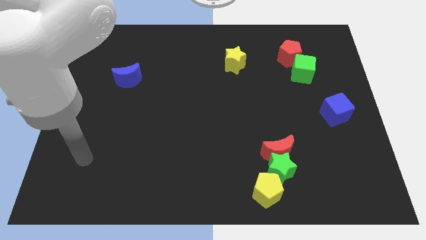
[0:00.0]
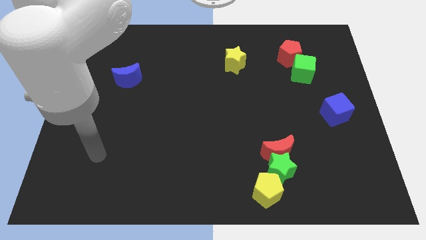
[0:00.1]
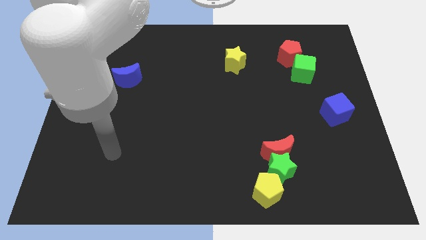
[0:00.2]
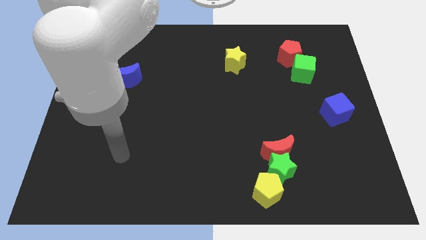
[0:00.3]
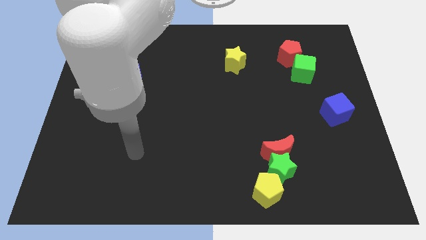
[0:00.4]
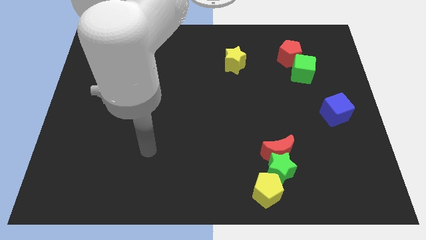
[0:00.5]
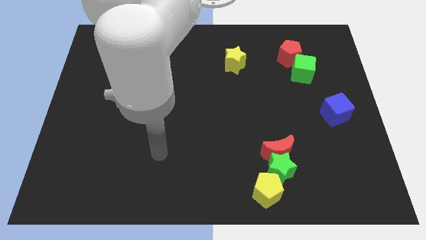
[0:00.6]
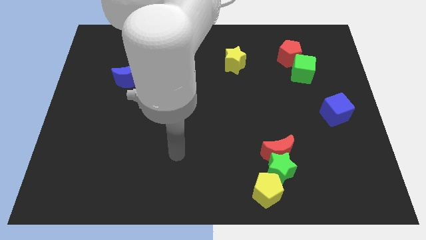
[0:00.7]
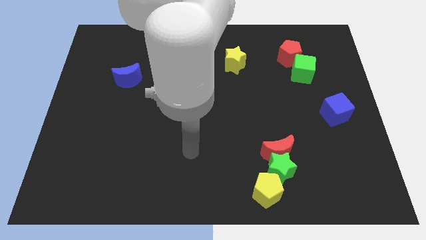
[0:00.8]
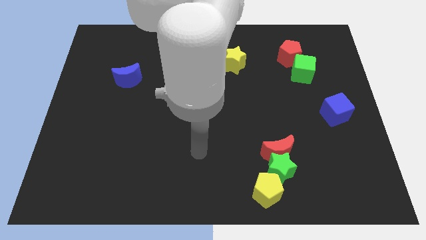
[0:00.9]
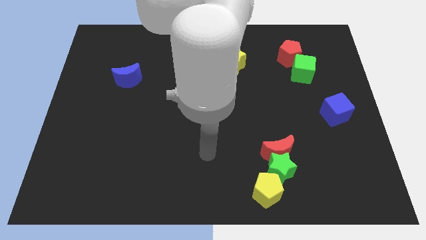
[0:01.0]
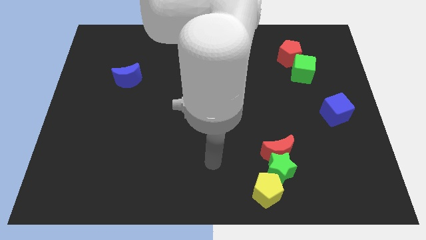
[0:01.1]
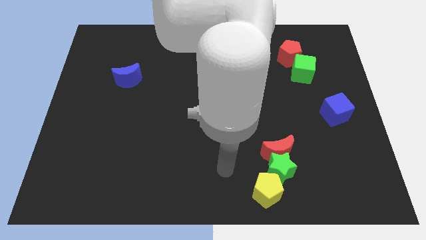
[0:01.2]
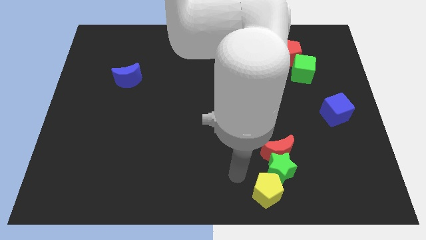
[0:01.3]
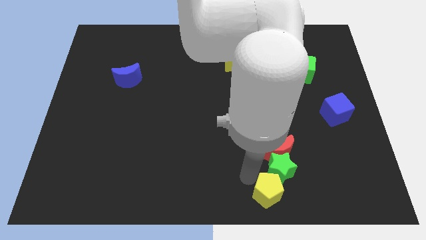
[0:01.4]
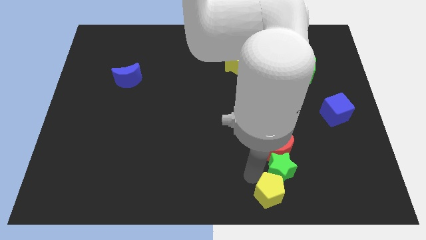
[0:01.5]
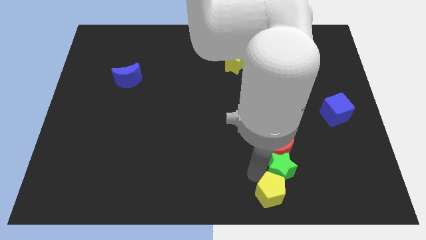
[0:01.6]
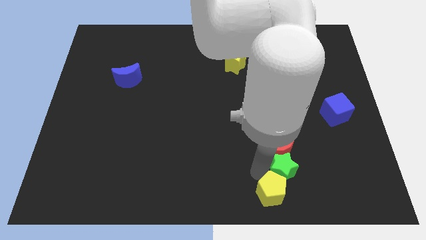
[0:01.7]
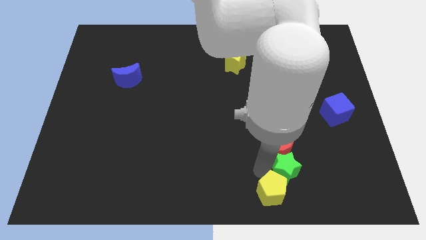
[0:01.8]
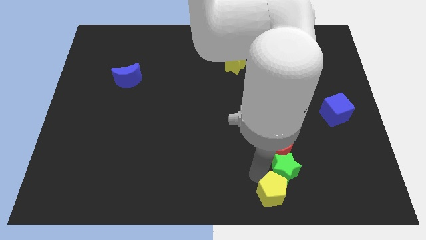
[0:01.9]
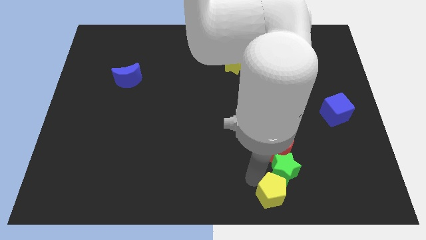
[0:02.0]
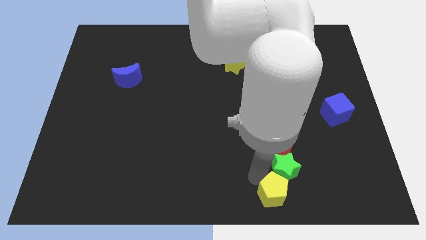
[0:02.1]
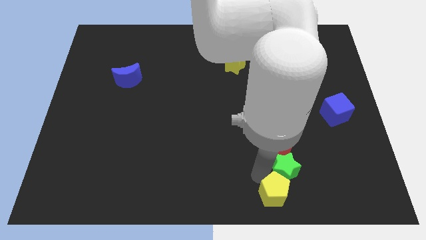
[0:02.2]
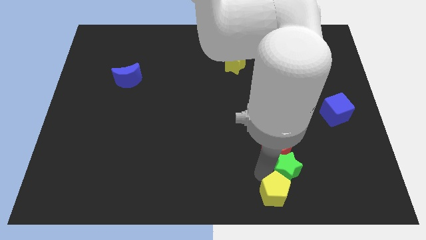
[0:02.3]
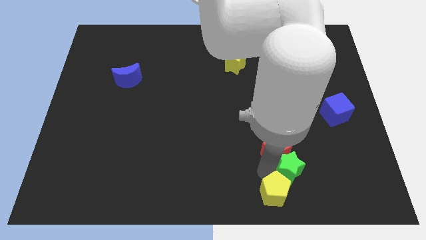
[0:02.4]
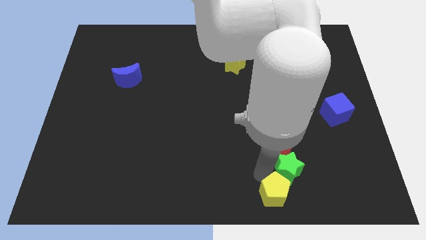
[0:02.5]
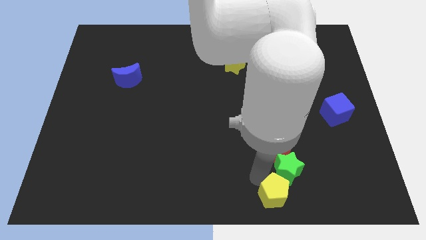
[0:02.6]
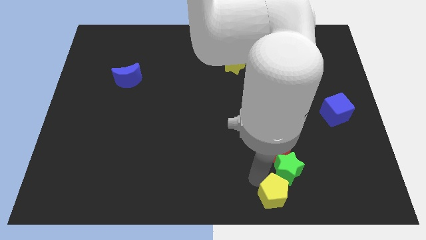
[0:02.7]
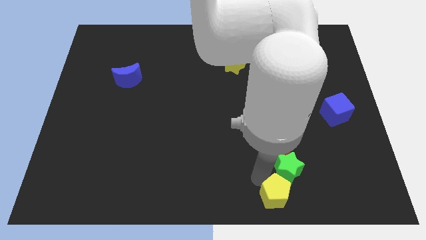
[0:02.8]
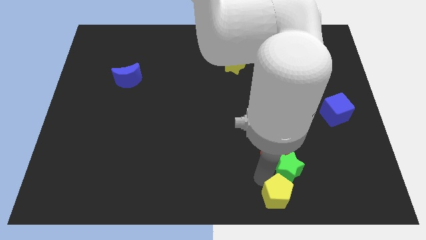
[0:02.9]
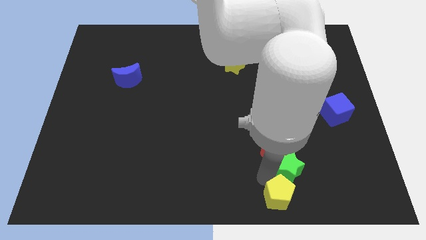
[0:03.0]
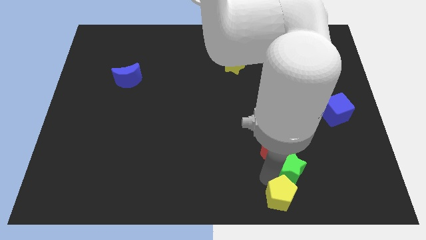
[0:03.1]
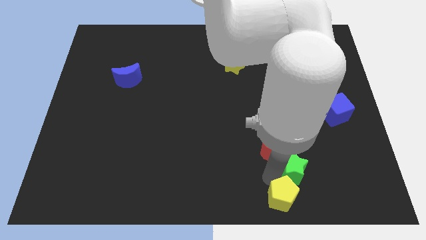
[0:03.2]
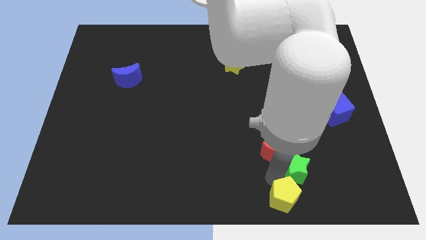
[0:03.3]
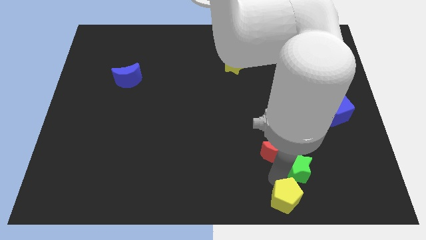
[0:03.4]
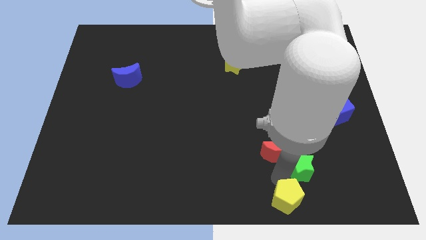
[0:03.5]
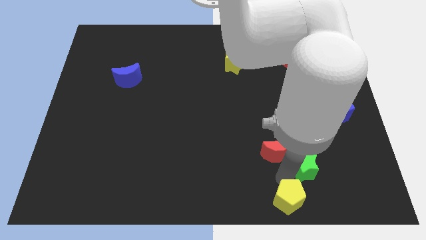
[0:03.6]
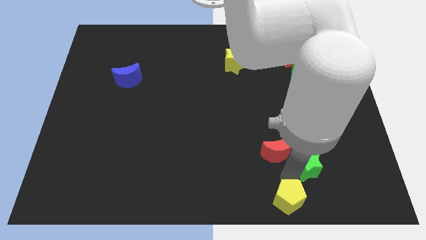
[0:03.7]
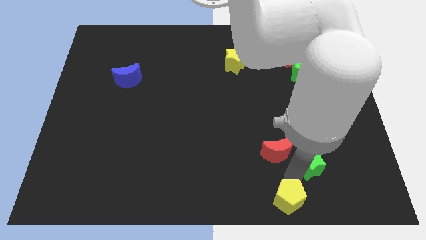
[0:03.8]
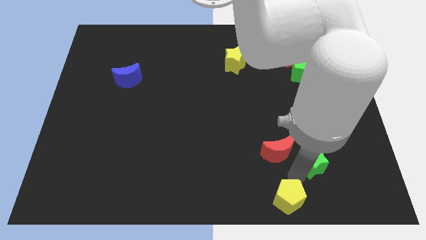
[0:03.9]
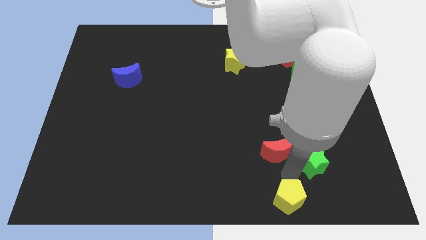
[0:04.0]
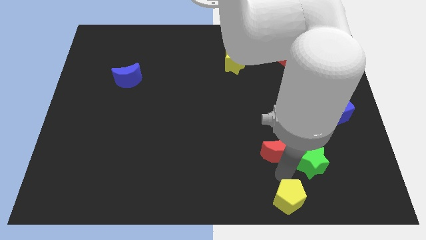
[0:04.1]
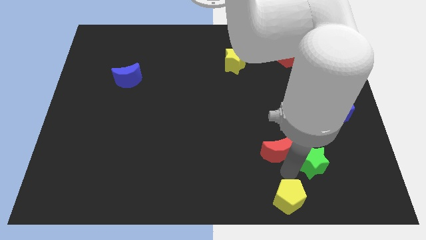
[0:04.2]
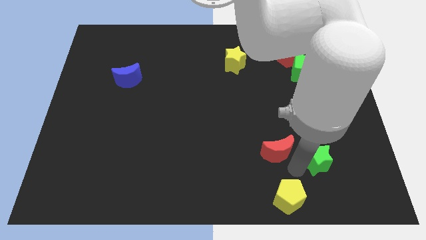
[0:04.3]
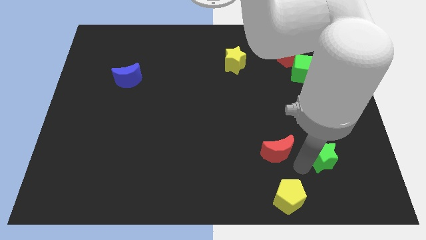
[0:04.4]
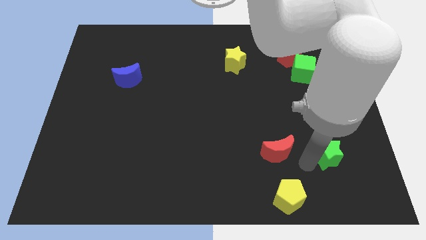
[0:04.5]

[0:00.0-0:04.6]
pull the green star apart from the red moon and yellow pentagon

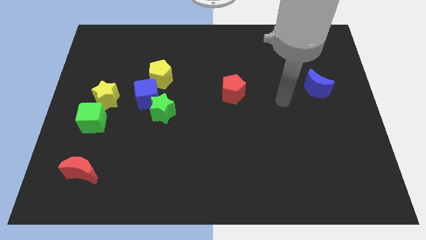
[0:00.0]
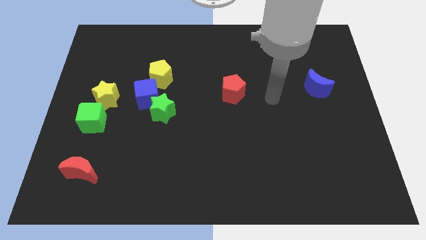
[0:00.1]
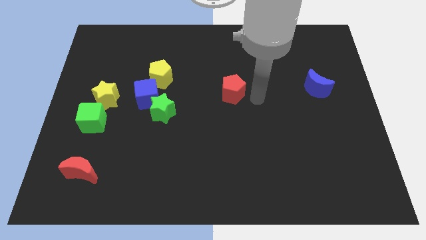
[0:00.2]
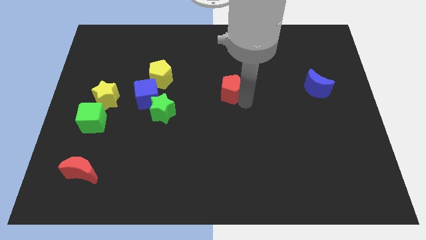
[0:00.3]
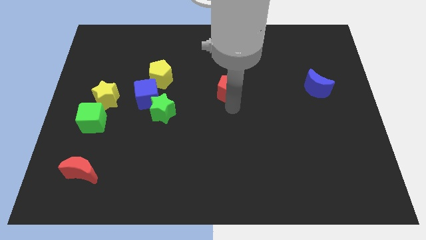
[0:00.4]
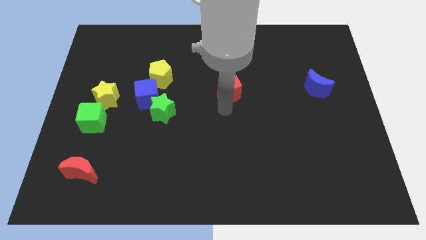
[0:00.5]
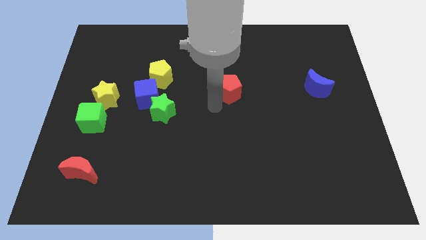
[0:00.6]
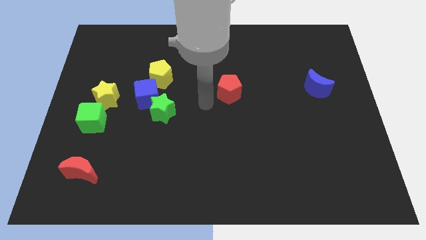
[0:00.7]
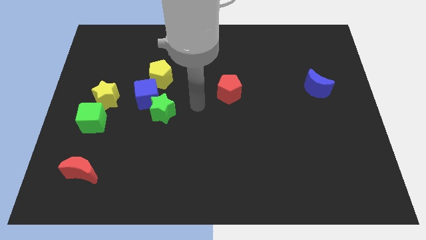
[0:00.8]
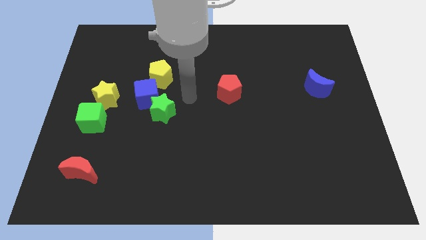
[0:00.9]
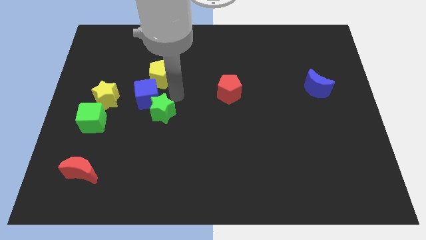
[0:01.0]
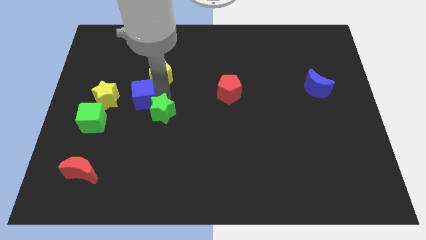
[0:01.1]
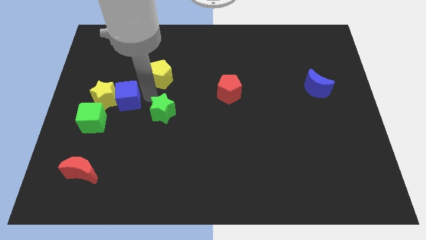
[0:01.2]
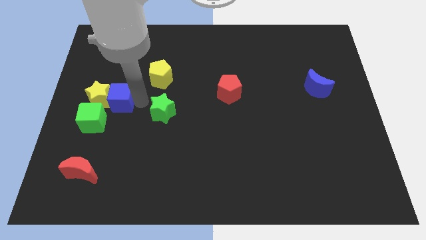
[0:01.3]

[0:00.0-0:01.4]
move the green star away from the blue cube

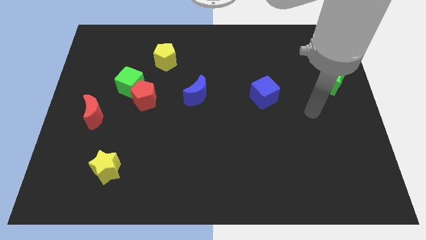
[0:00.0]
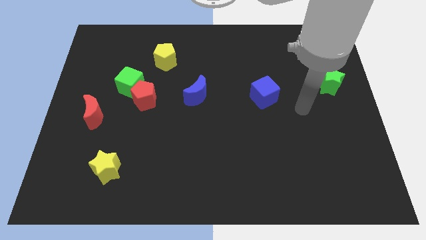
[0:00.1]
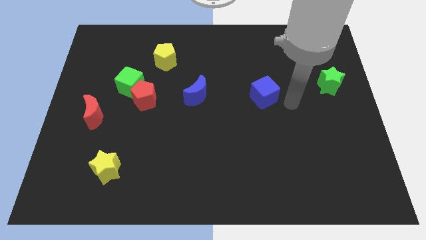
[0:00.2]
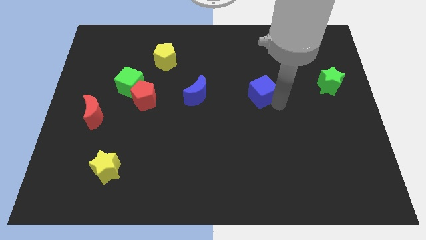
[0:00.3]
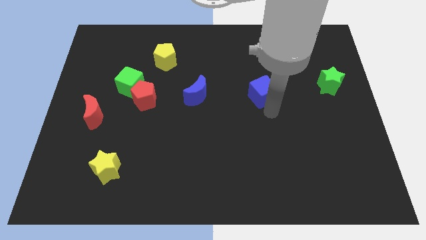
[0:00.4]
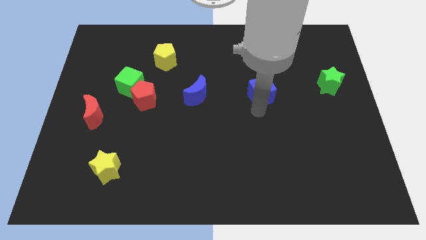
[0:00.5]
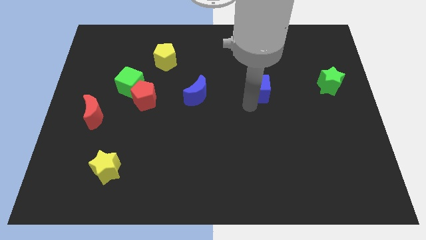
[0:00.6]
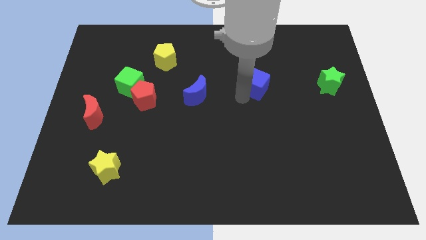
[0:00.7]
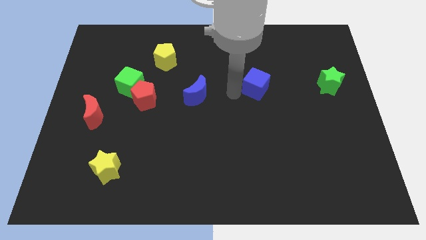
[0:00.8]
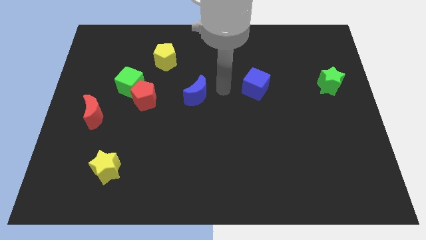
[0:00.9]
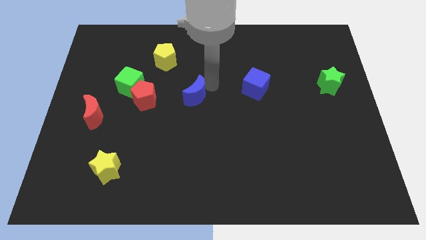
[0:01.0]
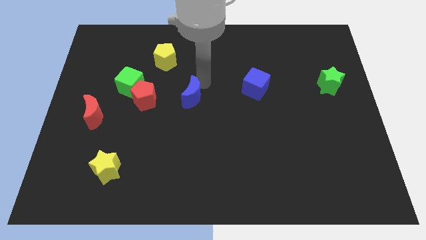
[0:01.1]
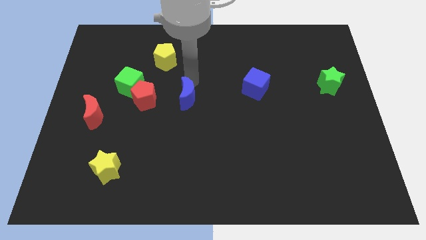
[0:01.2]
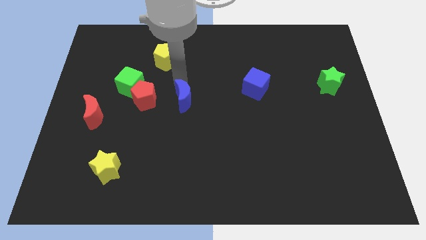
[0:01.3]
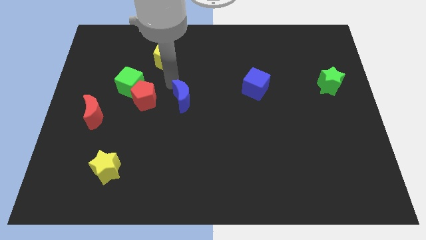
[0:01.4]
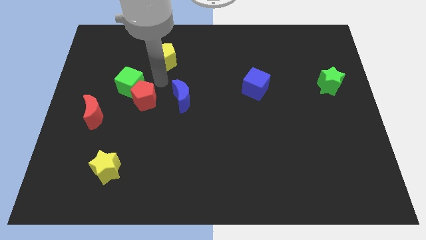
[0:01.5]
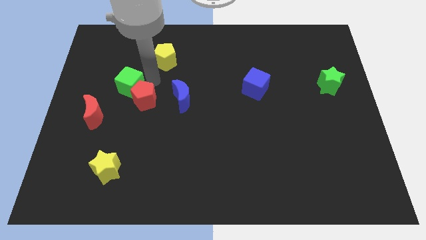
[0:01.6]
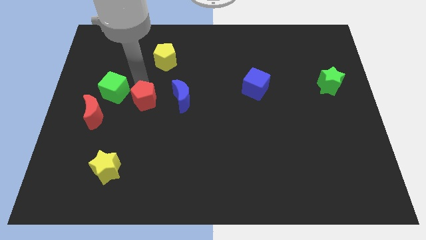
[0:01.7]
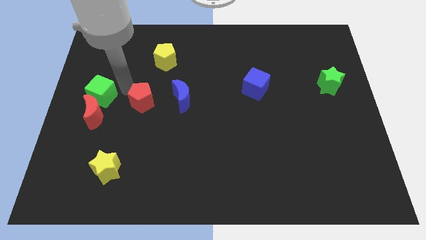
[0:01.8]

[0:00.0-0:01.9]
pull the red pentagon apart from the green cube

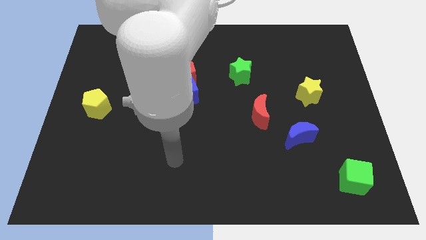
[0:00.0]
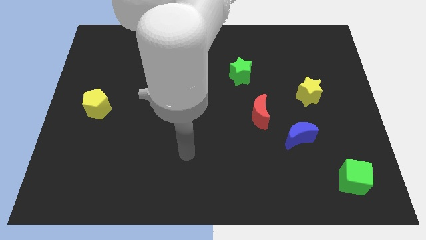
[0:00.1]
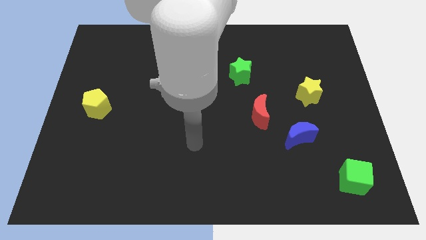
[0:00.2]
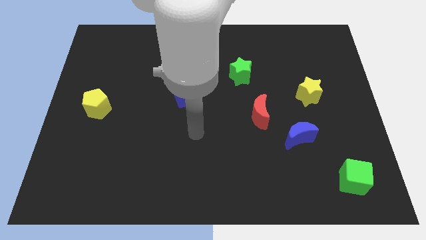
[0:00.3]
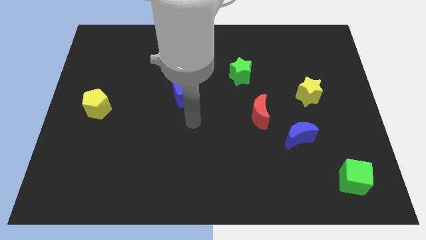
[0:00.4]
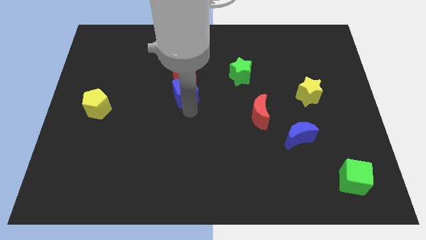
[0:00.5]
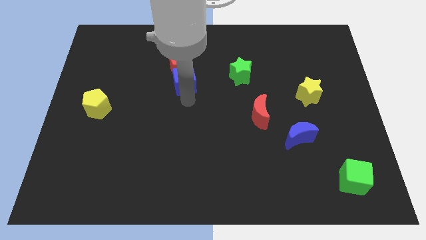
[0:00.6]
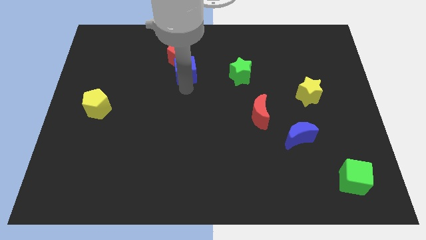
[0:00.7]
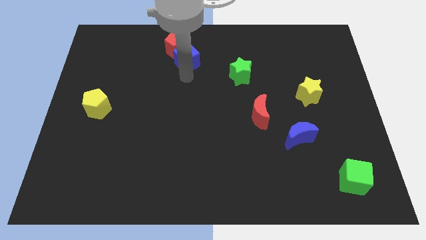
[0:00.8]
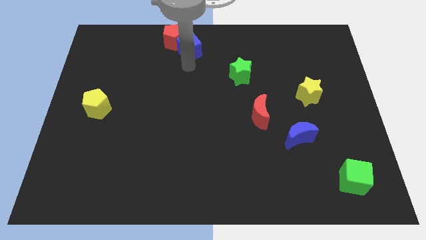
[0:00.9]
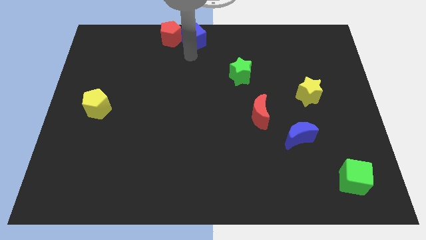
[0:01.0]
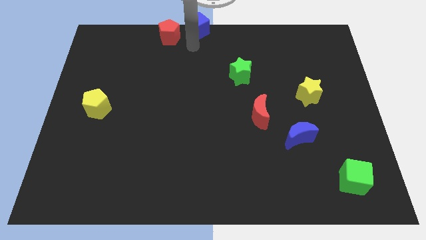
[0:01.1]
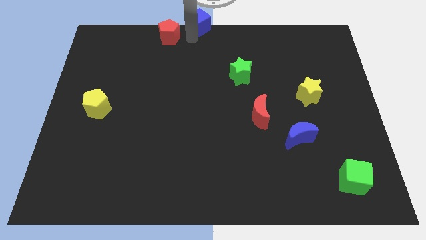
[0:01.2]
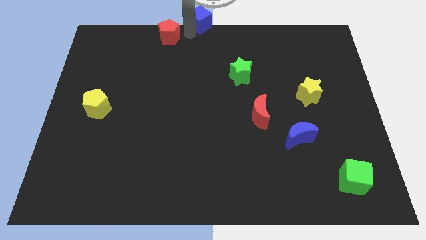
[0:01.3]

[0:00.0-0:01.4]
pull the red pentagon apart from the blue cube
